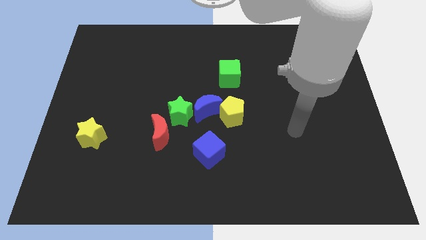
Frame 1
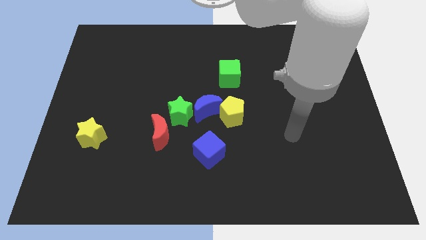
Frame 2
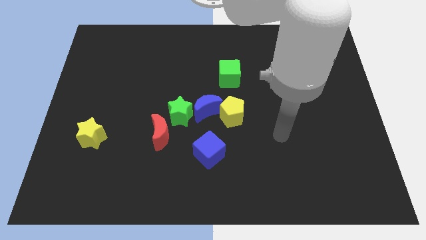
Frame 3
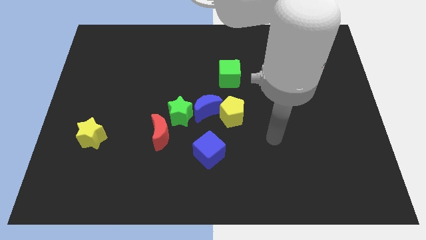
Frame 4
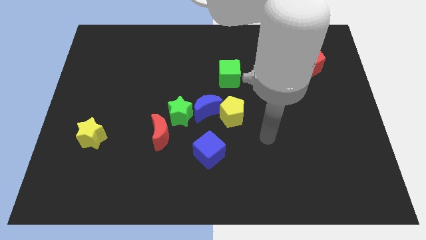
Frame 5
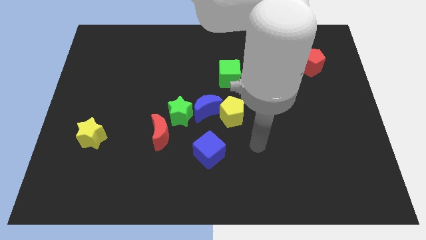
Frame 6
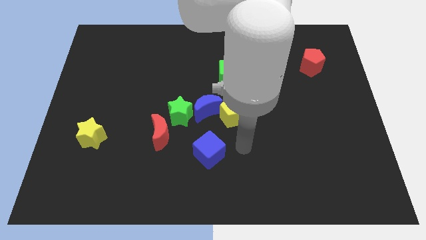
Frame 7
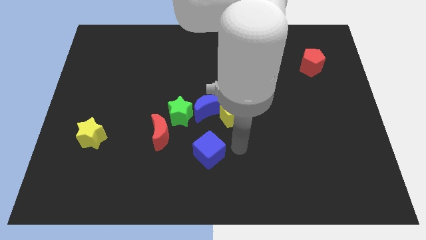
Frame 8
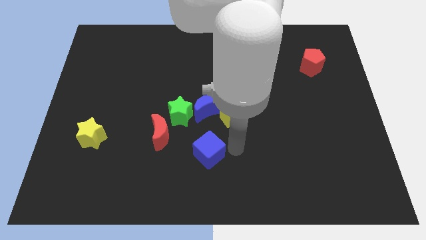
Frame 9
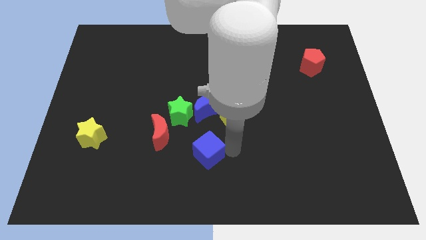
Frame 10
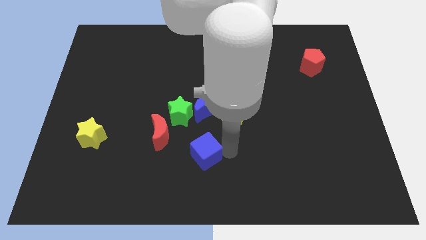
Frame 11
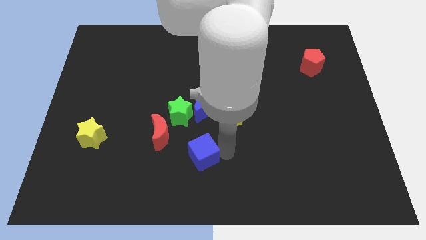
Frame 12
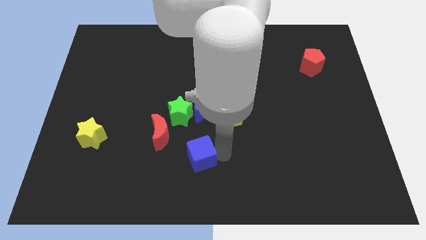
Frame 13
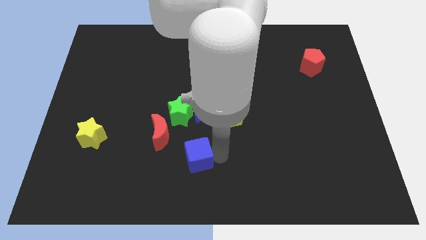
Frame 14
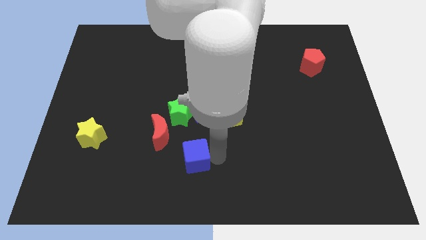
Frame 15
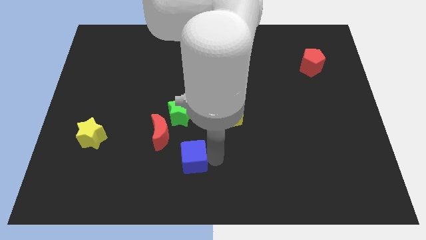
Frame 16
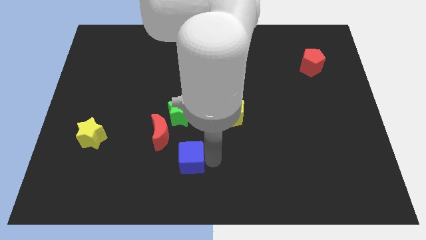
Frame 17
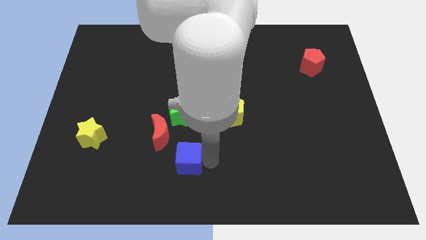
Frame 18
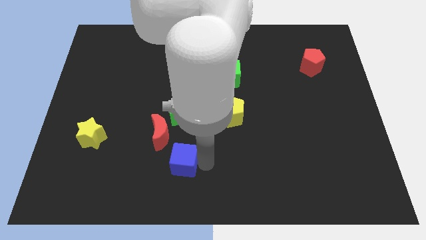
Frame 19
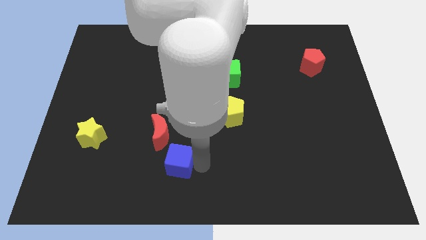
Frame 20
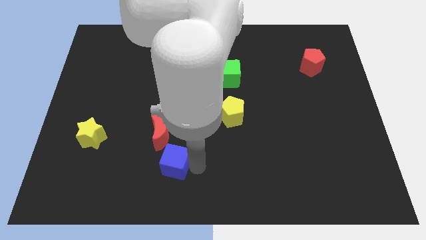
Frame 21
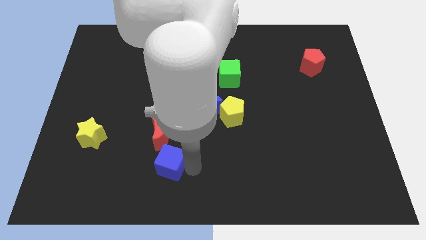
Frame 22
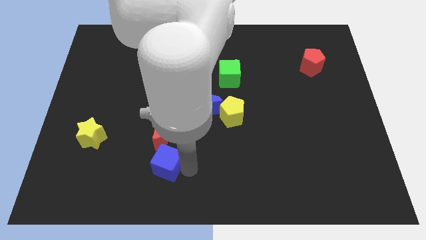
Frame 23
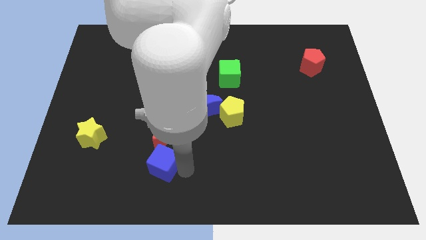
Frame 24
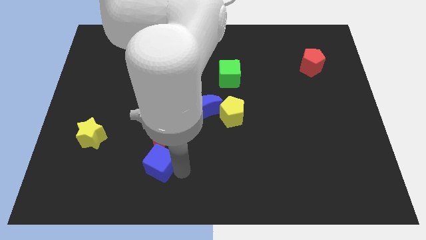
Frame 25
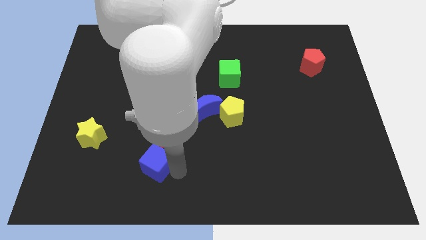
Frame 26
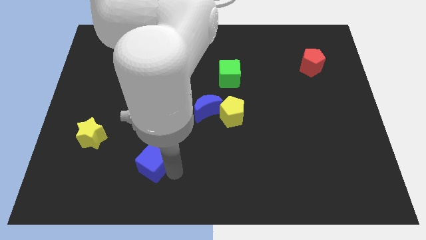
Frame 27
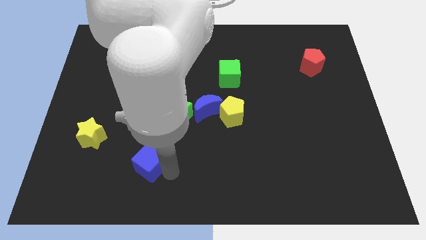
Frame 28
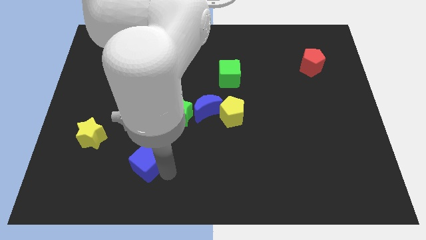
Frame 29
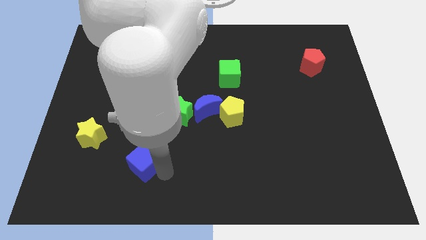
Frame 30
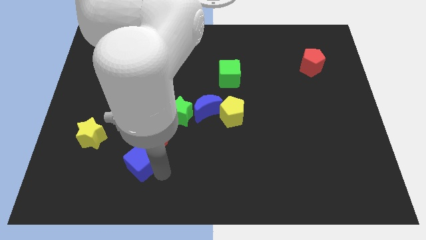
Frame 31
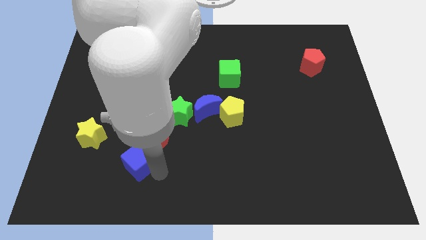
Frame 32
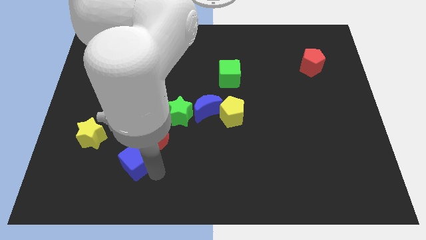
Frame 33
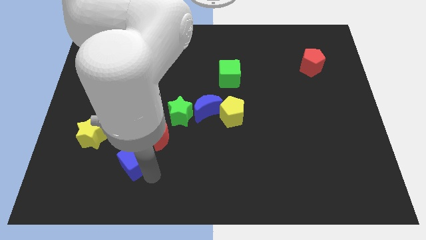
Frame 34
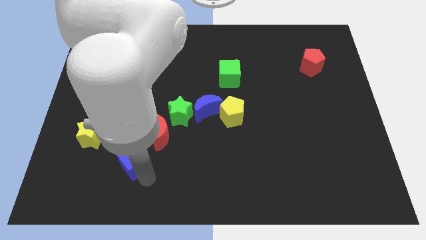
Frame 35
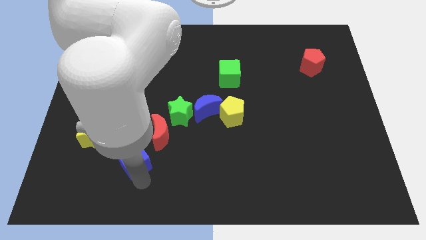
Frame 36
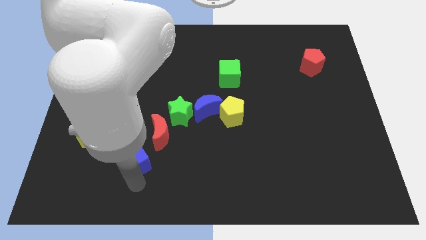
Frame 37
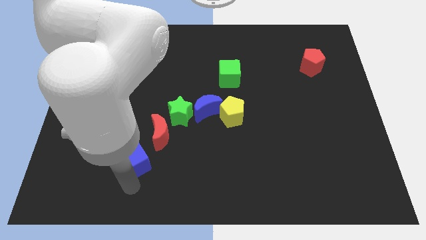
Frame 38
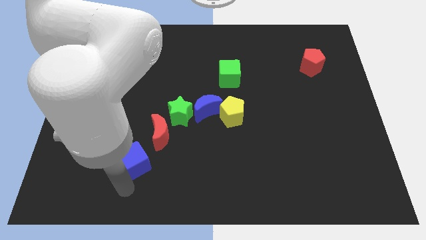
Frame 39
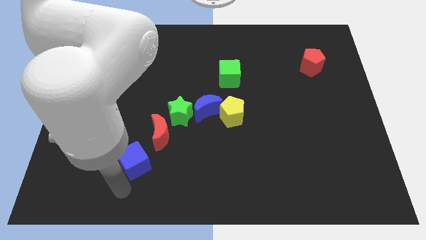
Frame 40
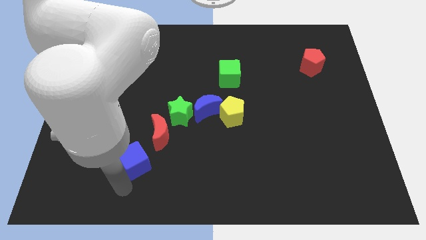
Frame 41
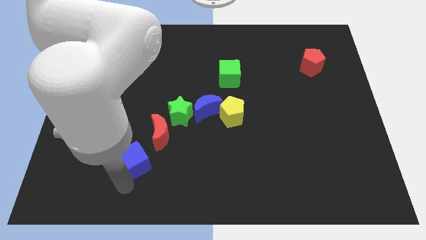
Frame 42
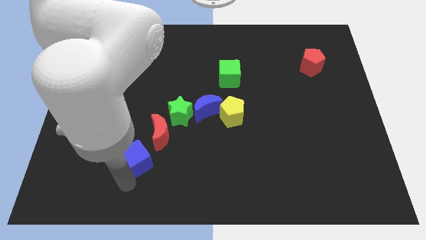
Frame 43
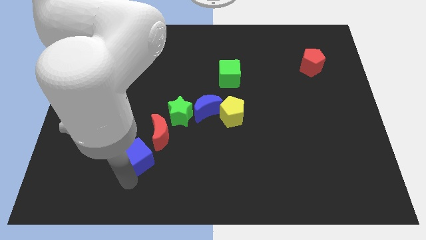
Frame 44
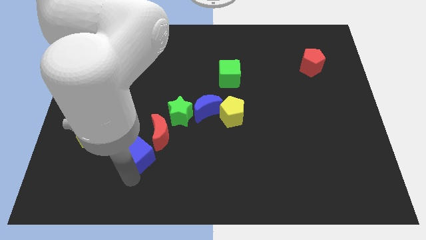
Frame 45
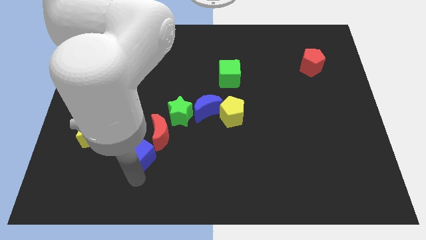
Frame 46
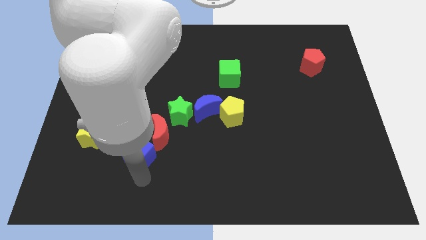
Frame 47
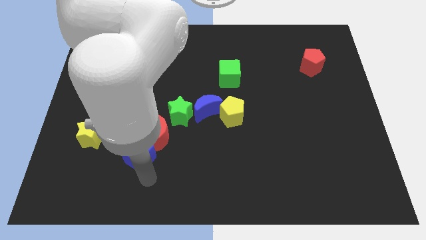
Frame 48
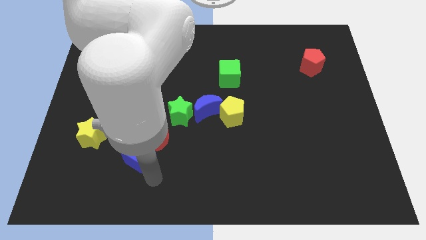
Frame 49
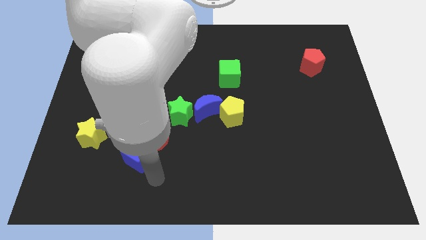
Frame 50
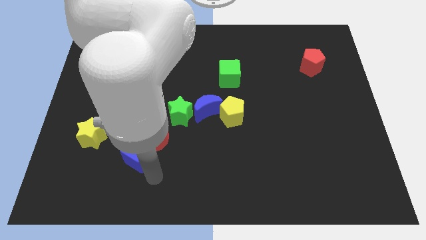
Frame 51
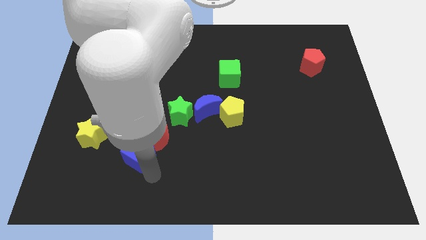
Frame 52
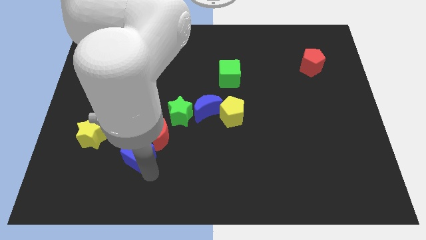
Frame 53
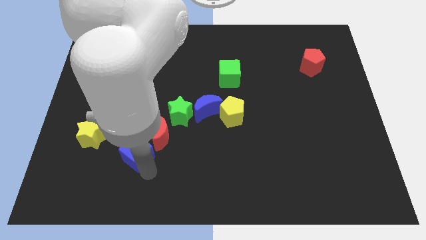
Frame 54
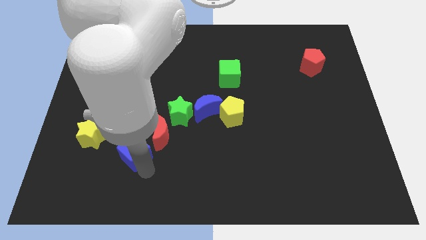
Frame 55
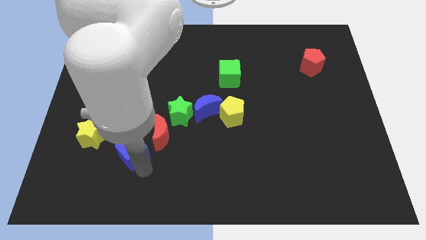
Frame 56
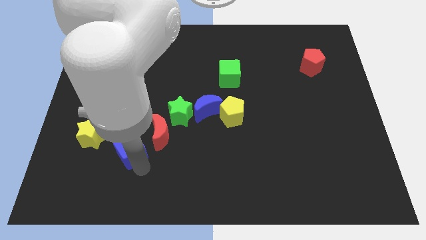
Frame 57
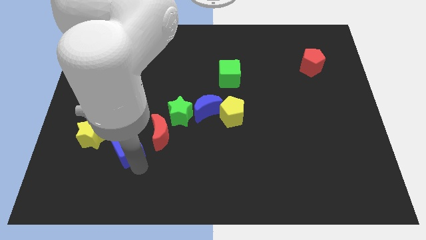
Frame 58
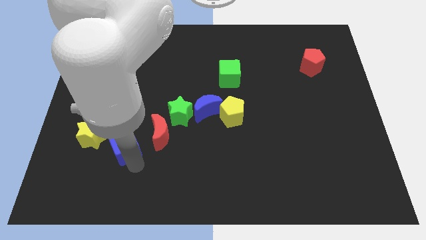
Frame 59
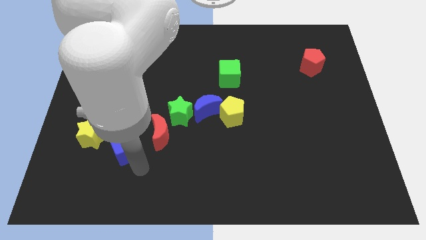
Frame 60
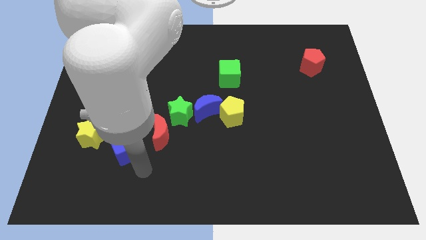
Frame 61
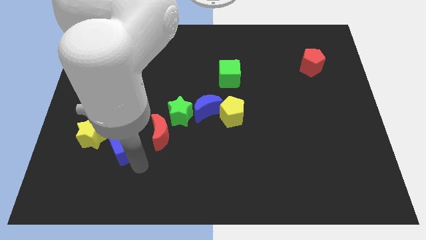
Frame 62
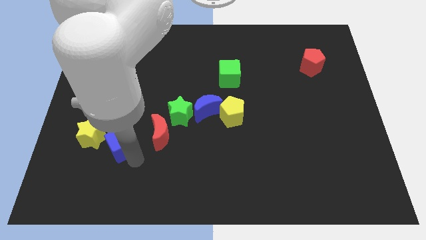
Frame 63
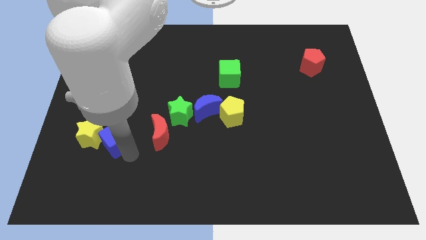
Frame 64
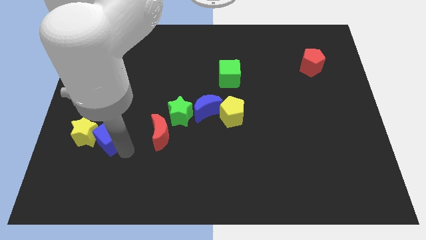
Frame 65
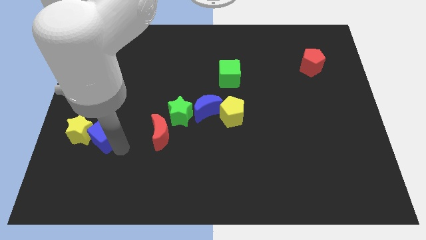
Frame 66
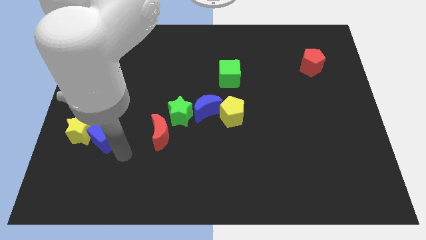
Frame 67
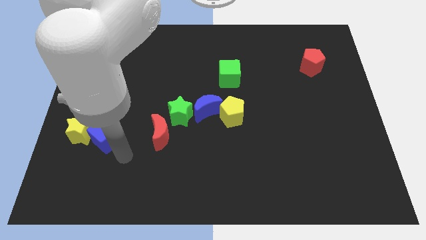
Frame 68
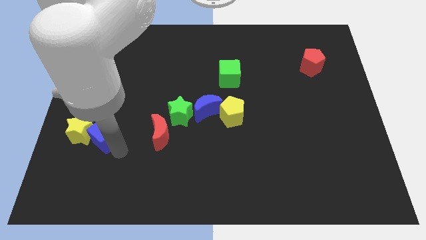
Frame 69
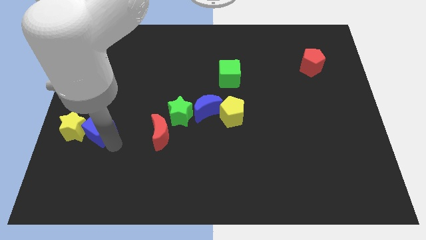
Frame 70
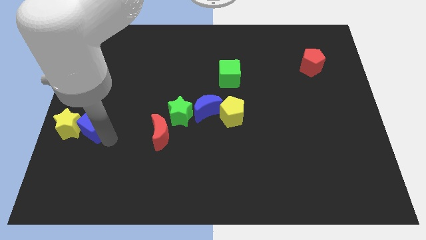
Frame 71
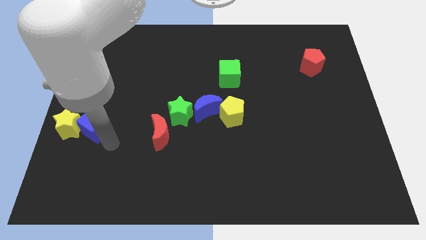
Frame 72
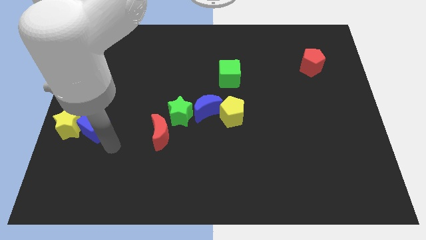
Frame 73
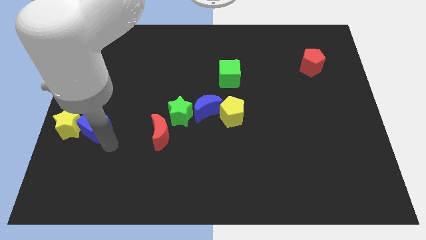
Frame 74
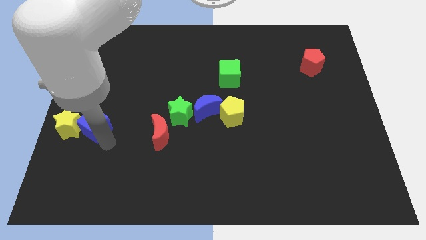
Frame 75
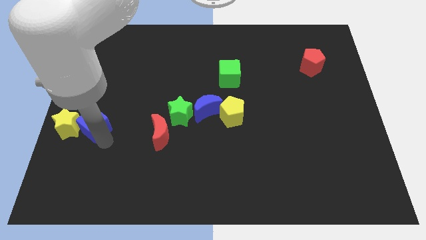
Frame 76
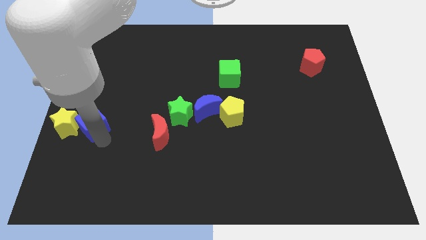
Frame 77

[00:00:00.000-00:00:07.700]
slide the blue cube to the center left
